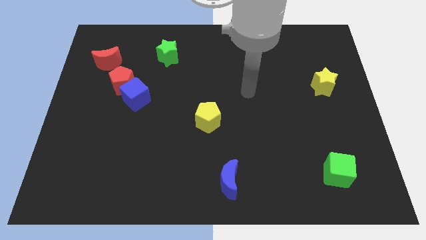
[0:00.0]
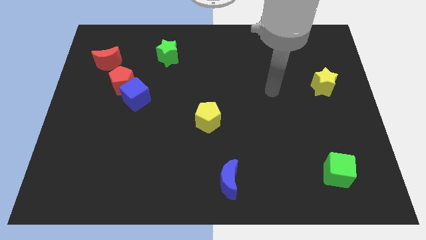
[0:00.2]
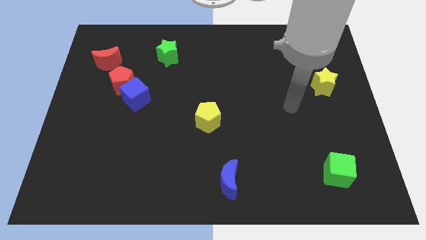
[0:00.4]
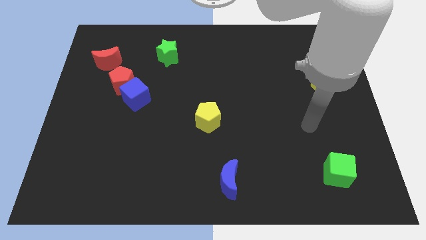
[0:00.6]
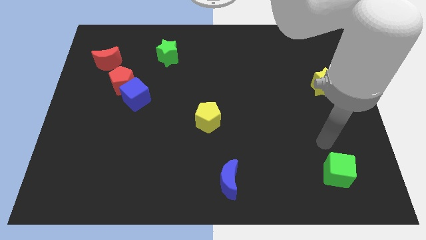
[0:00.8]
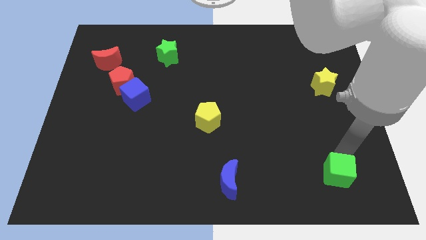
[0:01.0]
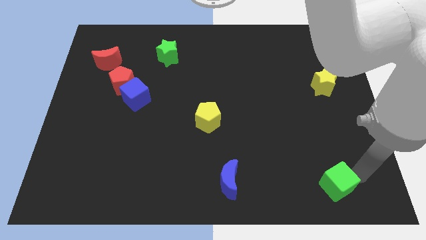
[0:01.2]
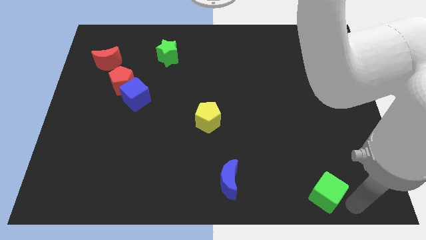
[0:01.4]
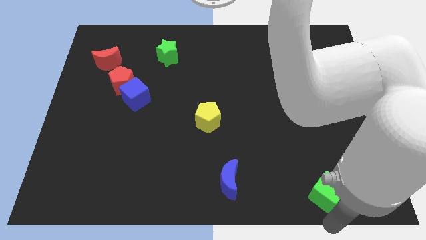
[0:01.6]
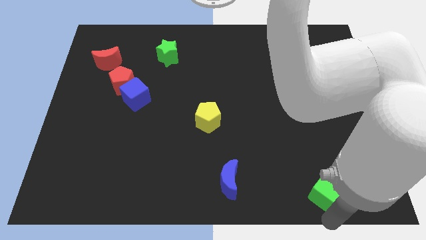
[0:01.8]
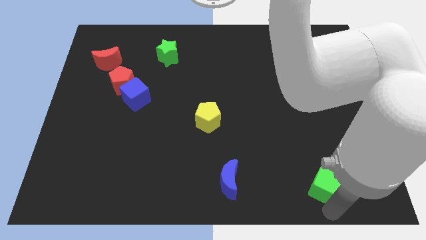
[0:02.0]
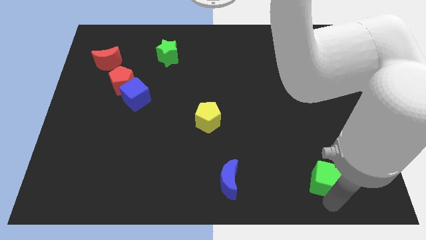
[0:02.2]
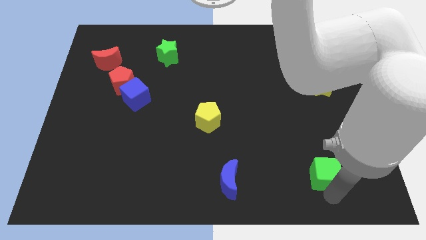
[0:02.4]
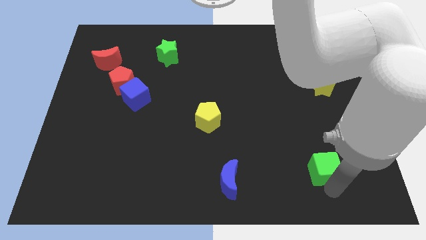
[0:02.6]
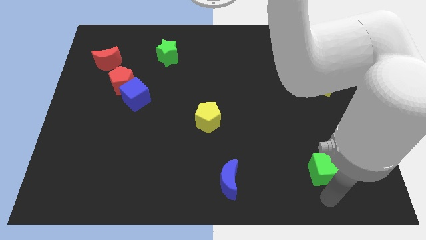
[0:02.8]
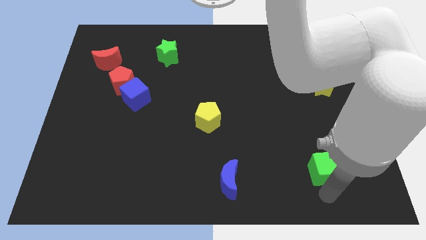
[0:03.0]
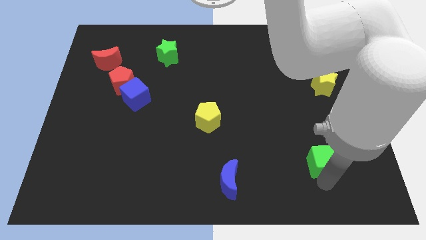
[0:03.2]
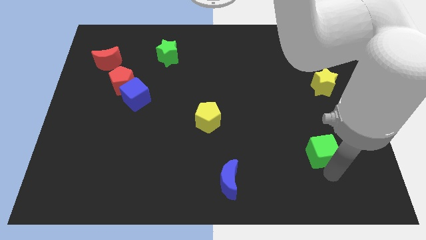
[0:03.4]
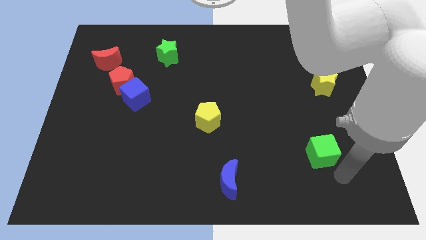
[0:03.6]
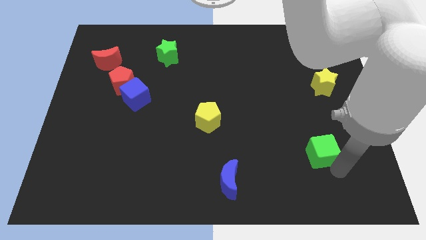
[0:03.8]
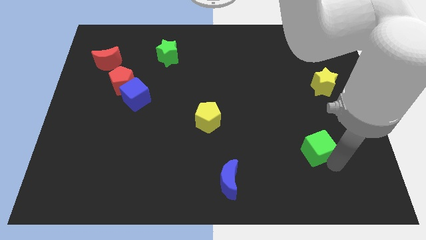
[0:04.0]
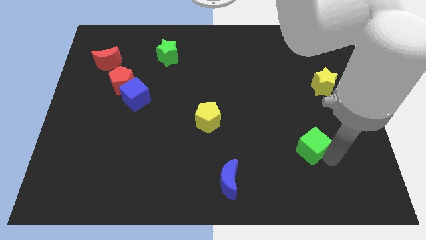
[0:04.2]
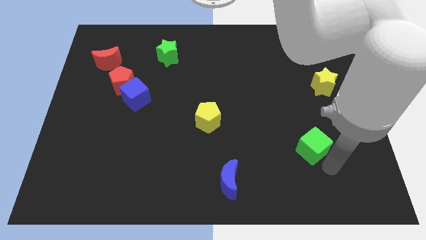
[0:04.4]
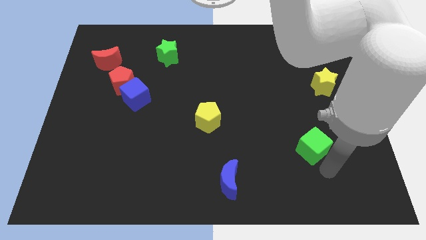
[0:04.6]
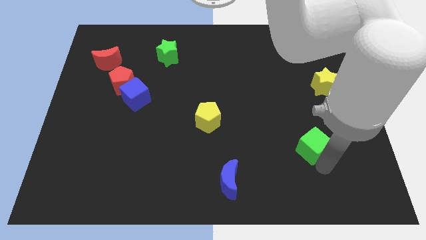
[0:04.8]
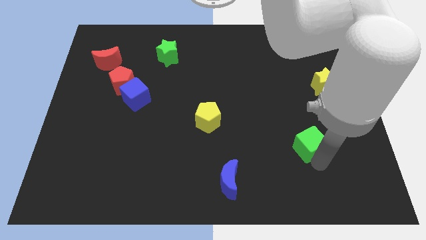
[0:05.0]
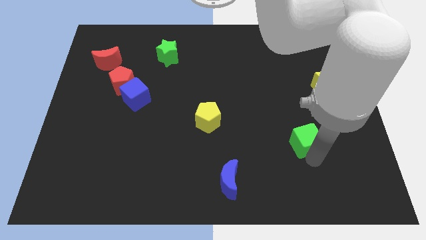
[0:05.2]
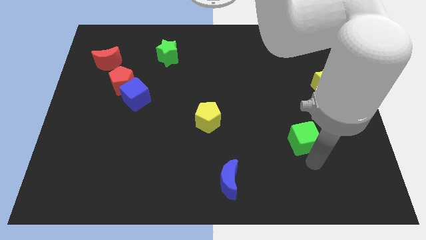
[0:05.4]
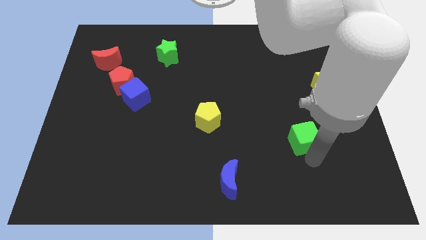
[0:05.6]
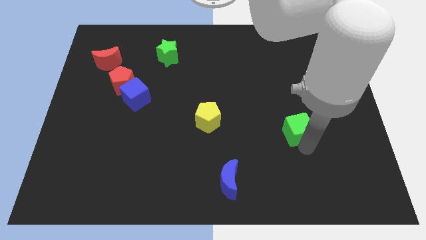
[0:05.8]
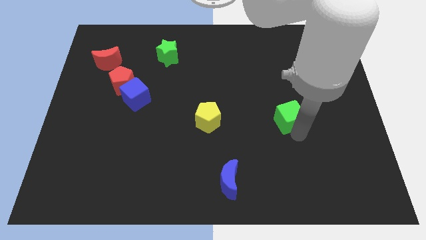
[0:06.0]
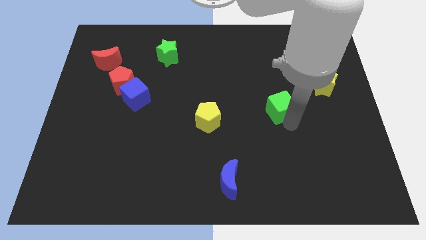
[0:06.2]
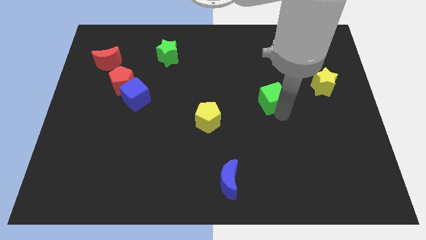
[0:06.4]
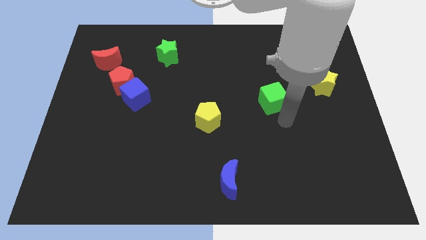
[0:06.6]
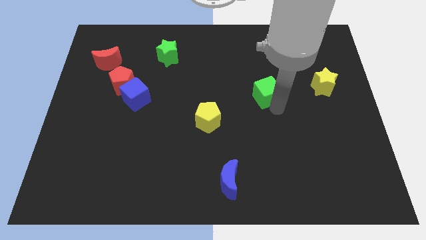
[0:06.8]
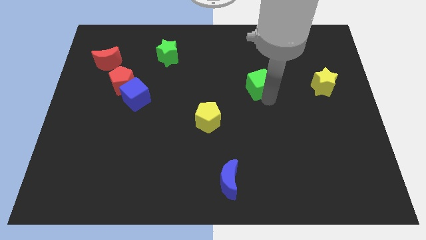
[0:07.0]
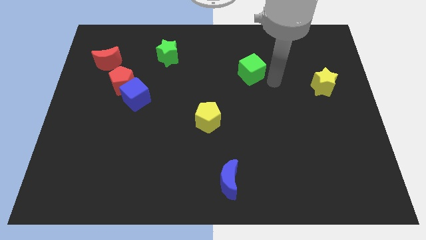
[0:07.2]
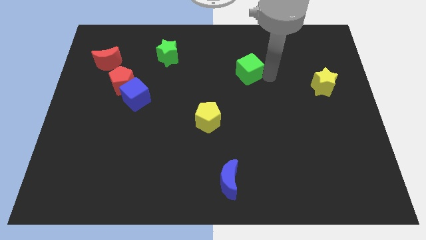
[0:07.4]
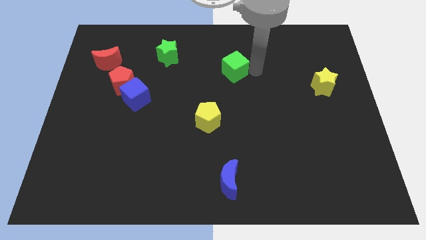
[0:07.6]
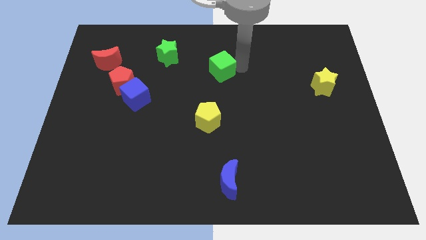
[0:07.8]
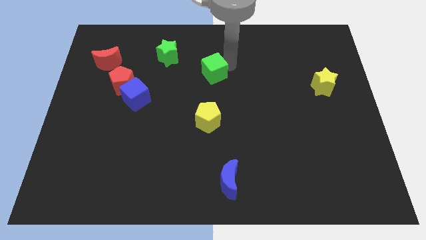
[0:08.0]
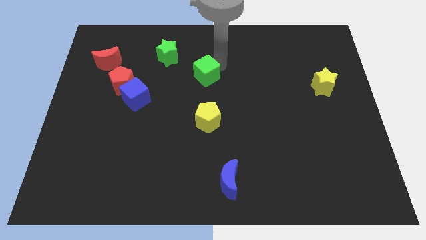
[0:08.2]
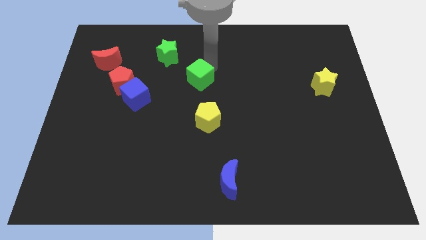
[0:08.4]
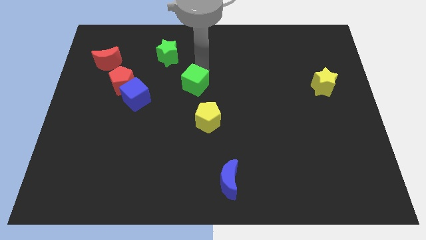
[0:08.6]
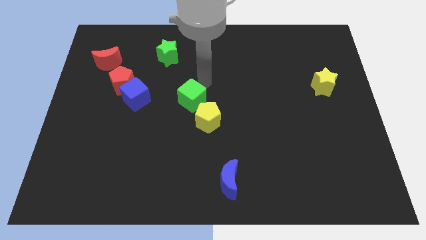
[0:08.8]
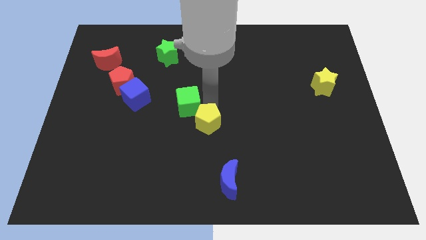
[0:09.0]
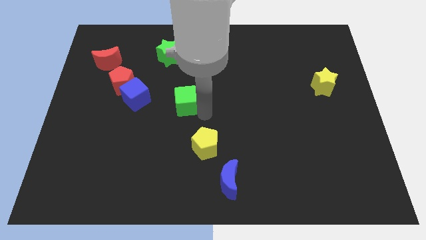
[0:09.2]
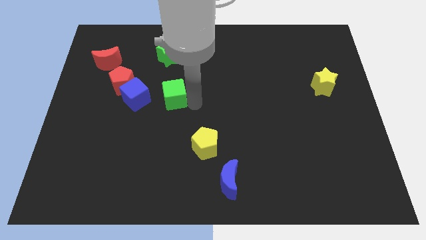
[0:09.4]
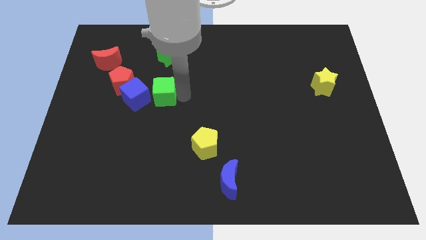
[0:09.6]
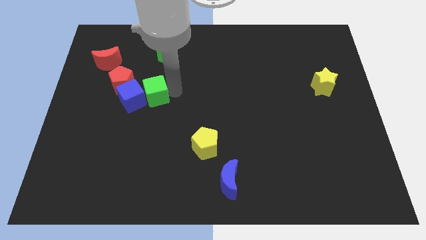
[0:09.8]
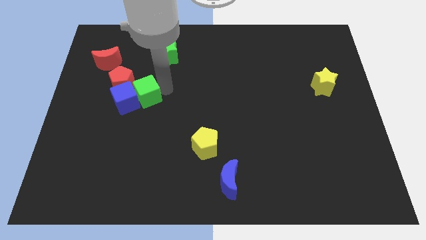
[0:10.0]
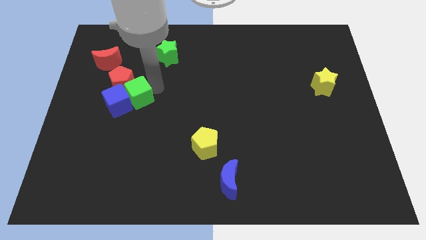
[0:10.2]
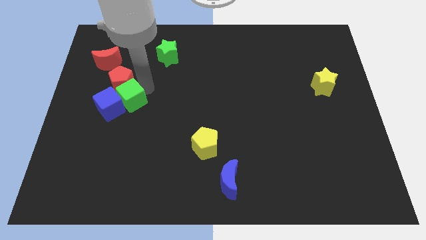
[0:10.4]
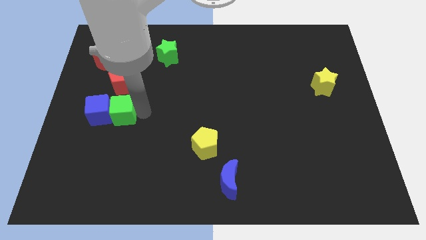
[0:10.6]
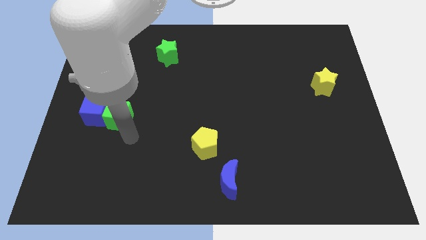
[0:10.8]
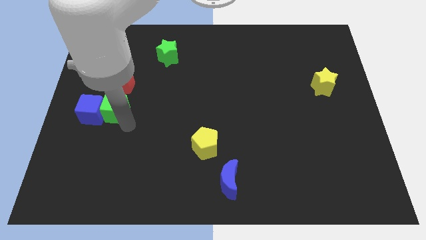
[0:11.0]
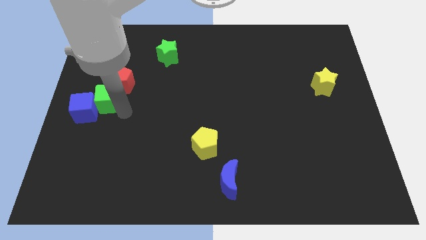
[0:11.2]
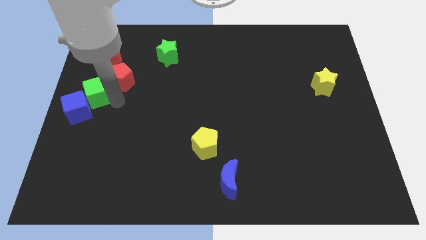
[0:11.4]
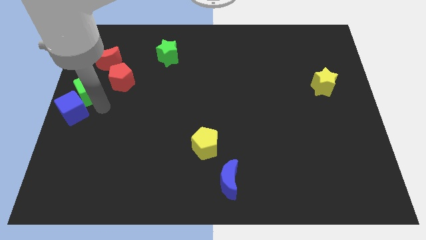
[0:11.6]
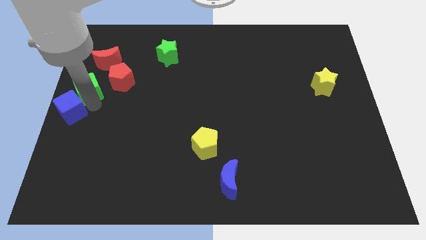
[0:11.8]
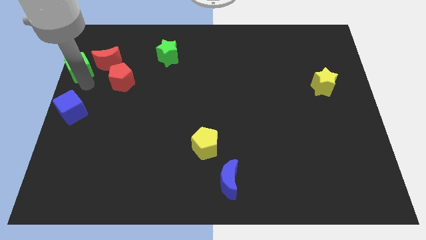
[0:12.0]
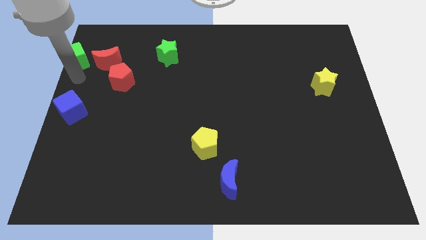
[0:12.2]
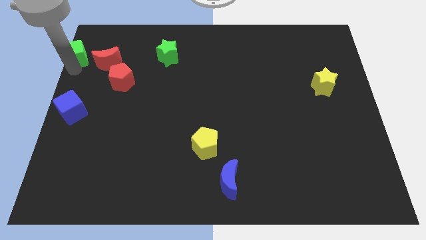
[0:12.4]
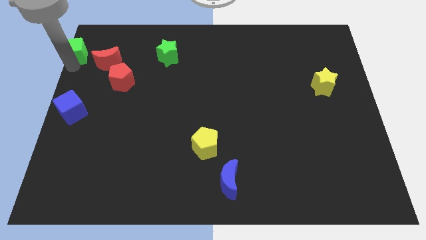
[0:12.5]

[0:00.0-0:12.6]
put the green cube to the top left corner
